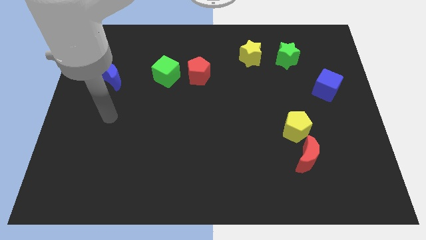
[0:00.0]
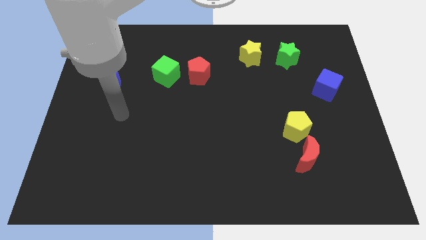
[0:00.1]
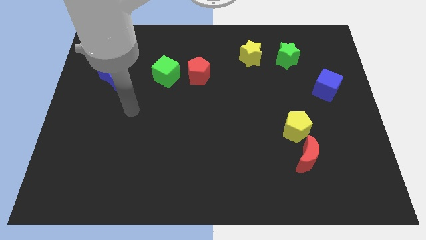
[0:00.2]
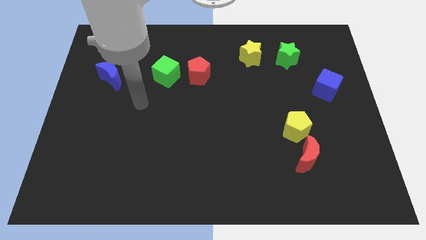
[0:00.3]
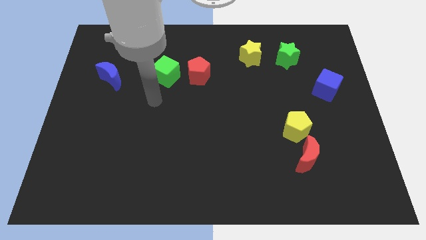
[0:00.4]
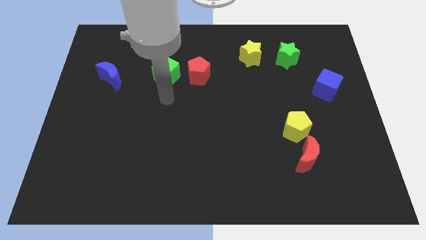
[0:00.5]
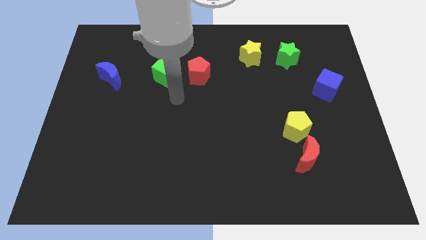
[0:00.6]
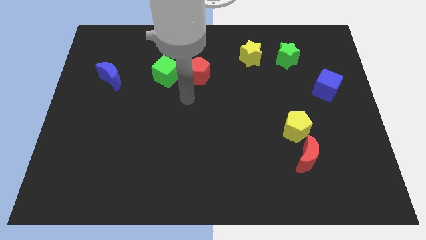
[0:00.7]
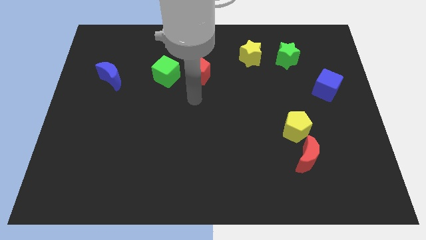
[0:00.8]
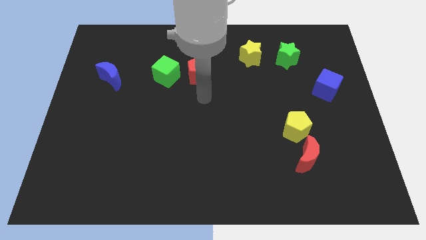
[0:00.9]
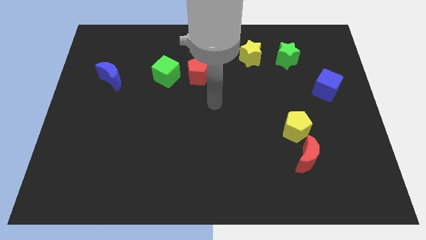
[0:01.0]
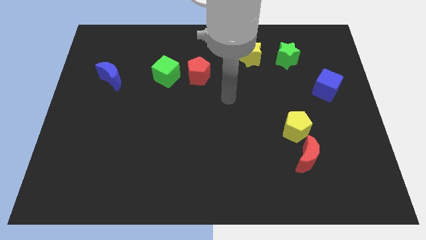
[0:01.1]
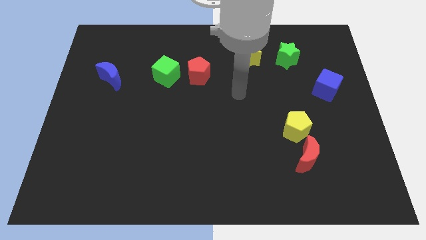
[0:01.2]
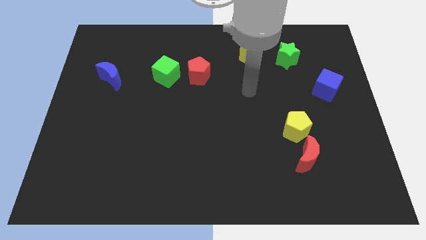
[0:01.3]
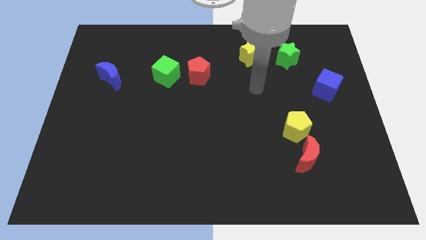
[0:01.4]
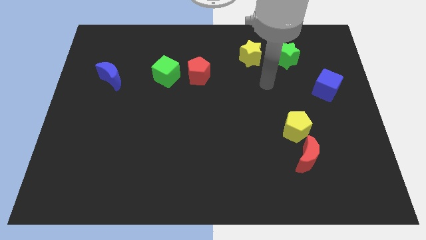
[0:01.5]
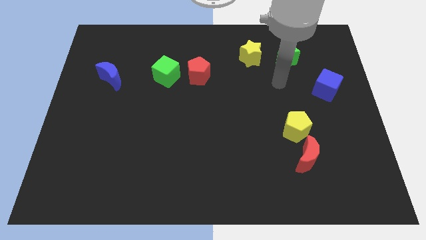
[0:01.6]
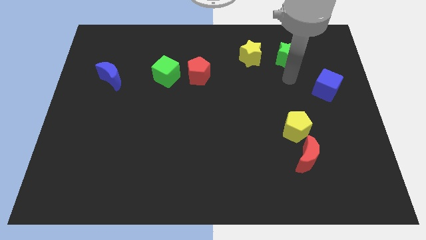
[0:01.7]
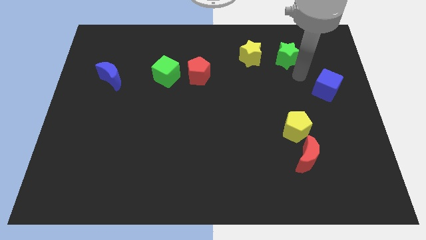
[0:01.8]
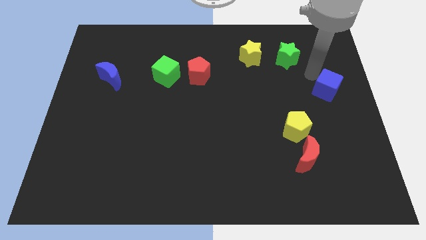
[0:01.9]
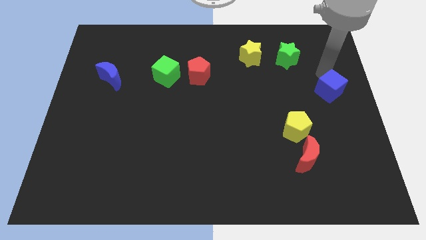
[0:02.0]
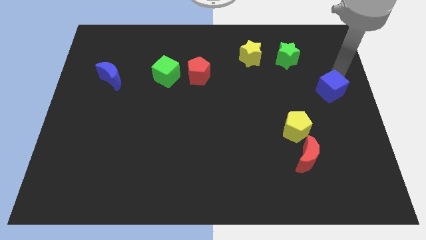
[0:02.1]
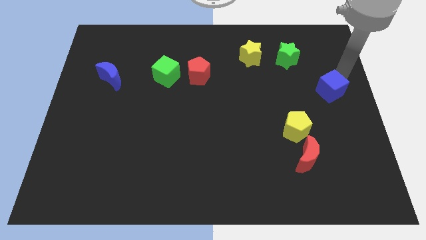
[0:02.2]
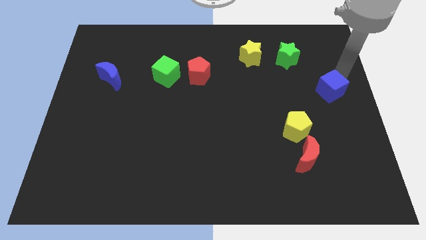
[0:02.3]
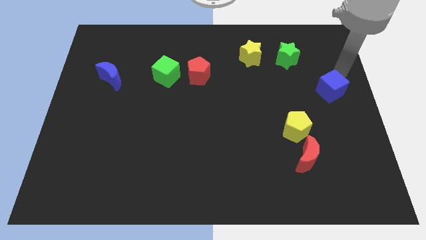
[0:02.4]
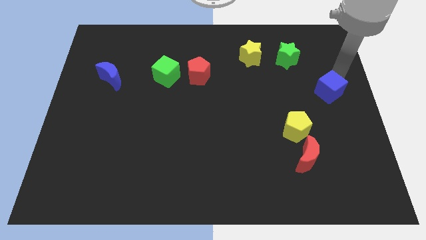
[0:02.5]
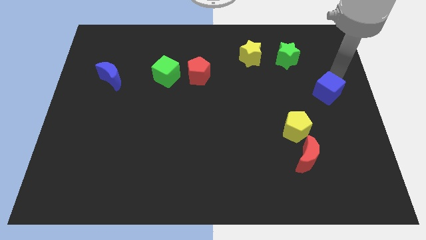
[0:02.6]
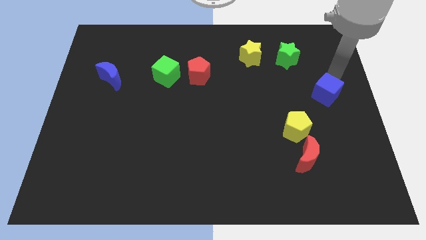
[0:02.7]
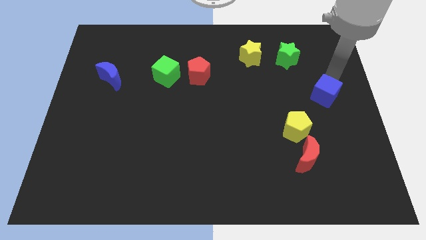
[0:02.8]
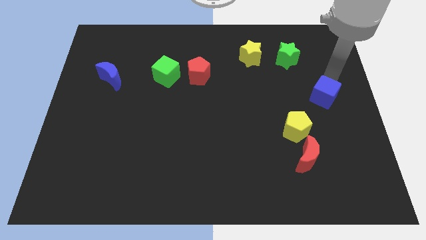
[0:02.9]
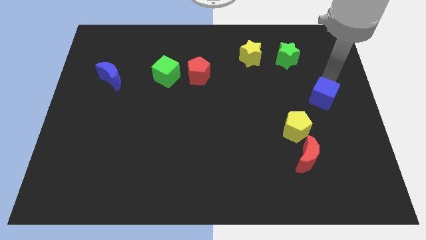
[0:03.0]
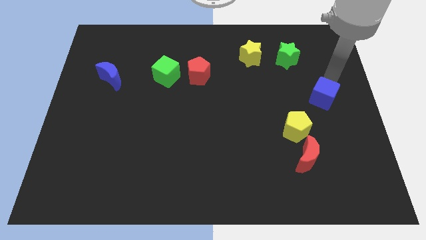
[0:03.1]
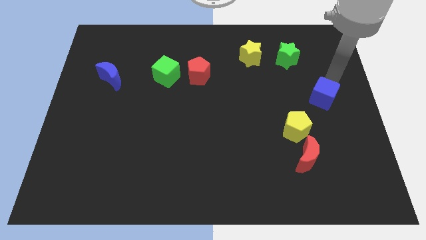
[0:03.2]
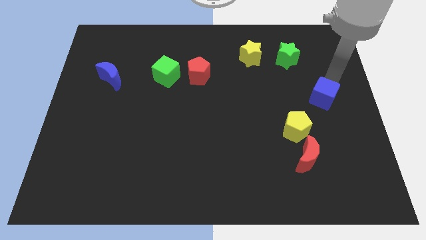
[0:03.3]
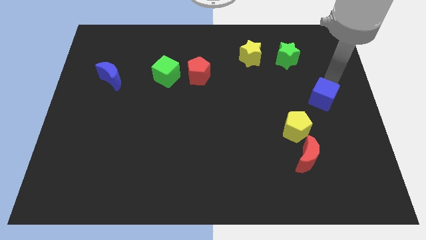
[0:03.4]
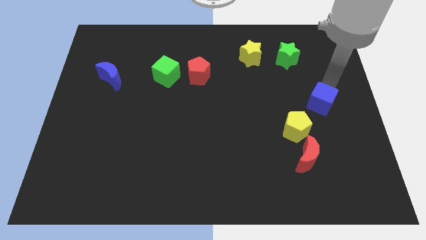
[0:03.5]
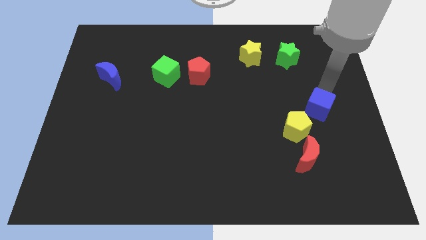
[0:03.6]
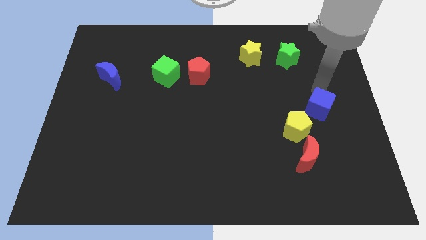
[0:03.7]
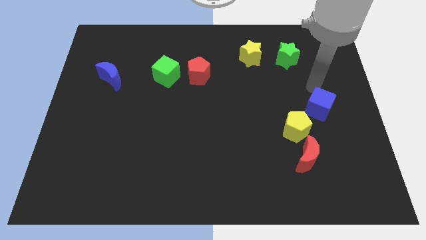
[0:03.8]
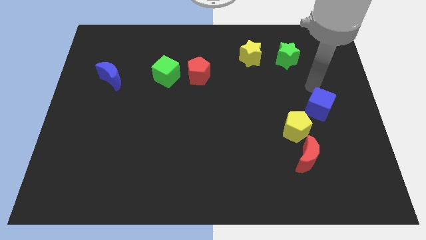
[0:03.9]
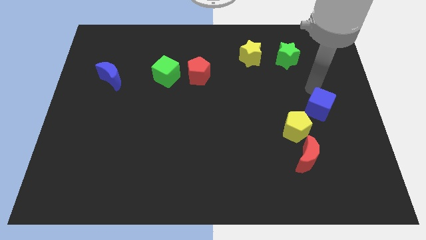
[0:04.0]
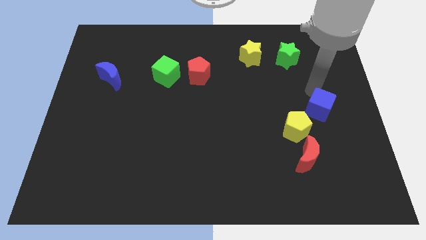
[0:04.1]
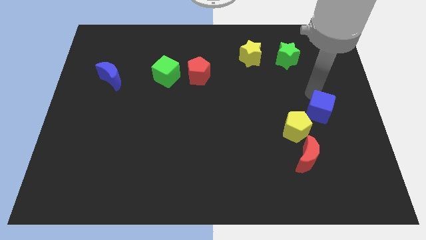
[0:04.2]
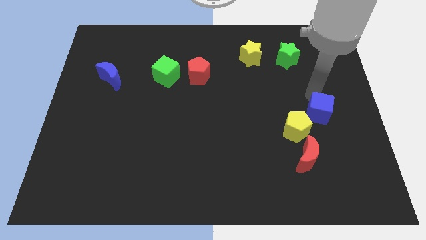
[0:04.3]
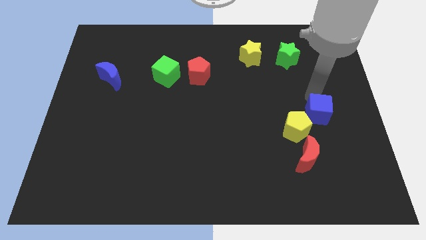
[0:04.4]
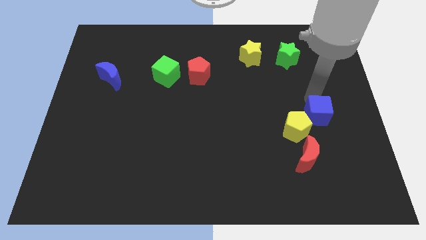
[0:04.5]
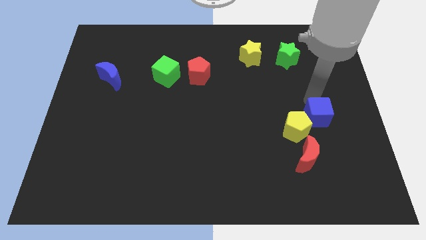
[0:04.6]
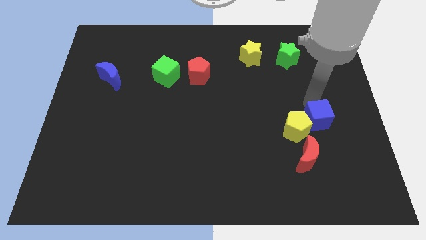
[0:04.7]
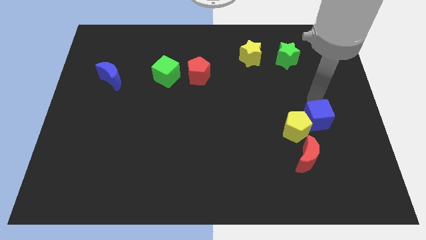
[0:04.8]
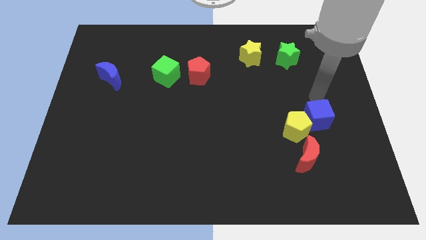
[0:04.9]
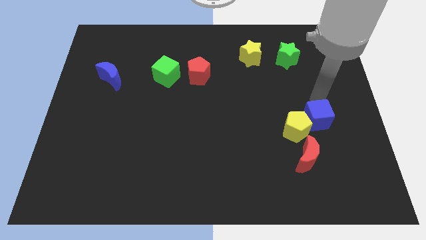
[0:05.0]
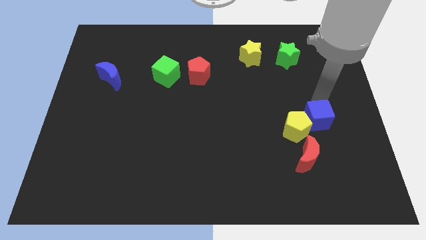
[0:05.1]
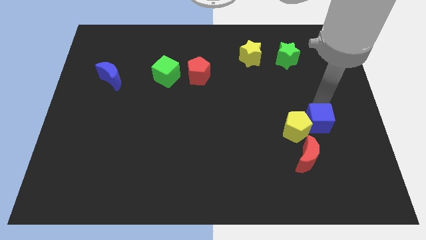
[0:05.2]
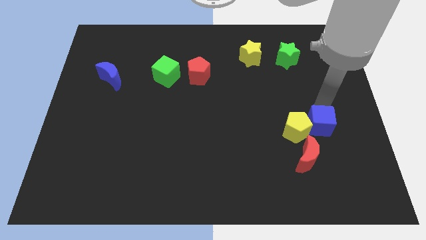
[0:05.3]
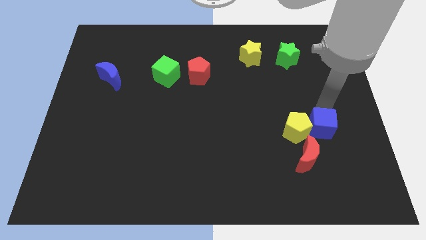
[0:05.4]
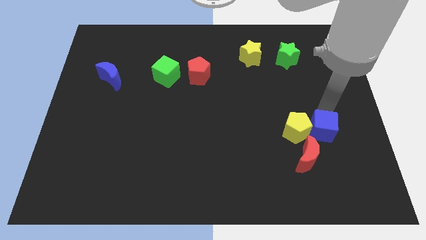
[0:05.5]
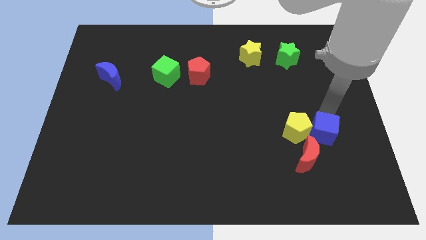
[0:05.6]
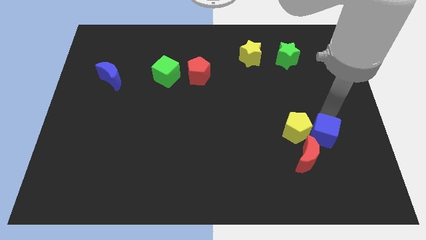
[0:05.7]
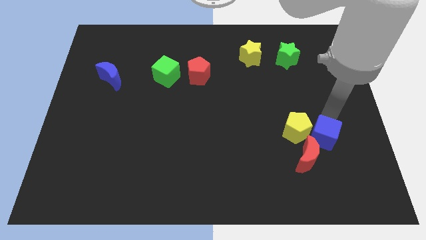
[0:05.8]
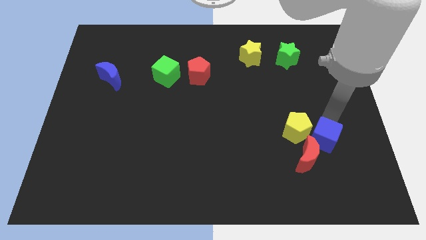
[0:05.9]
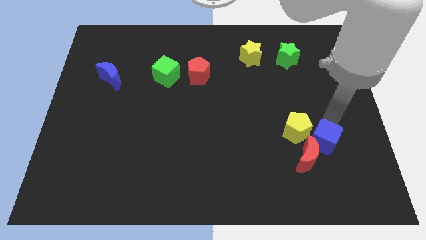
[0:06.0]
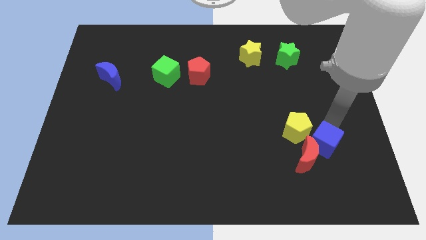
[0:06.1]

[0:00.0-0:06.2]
move the blue cube towards the red moon
